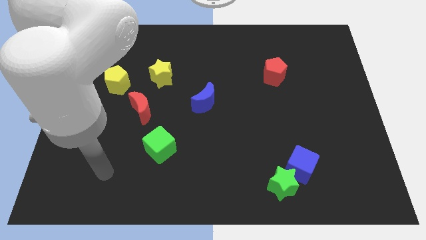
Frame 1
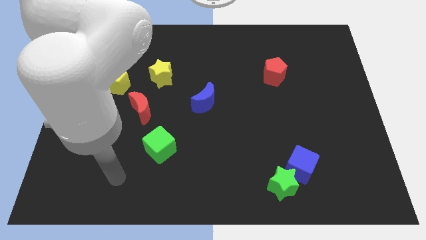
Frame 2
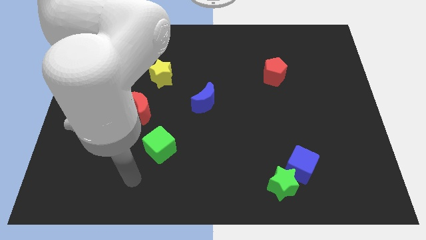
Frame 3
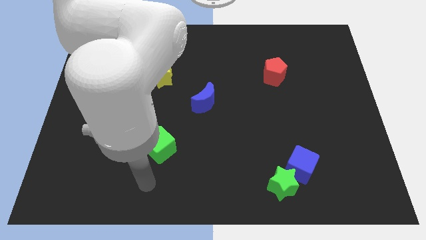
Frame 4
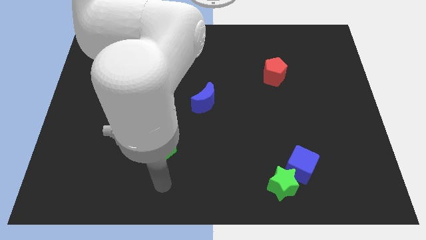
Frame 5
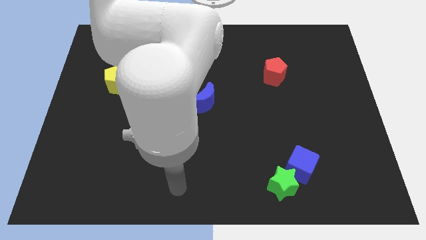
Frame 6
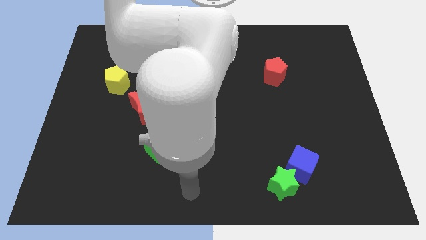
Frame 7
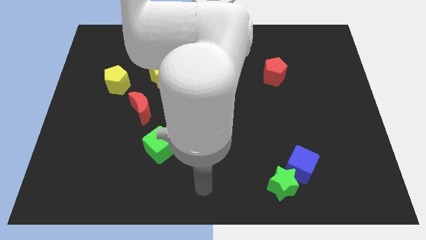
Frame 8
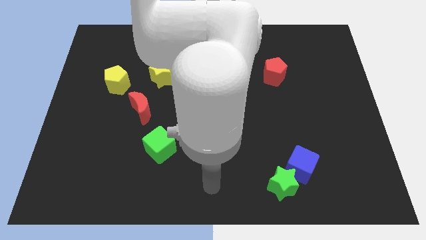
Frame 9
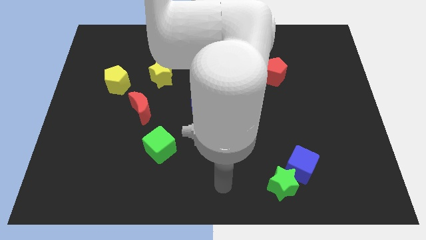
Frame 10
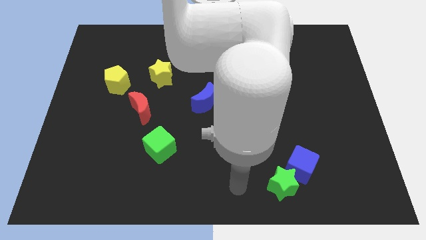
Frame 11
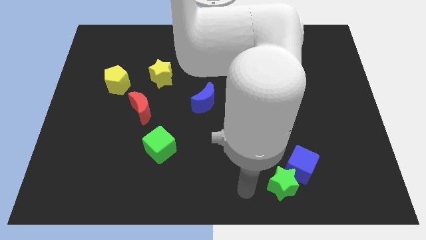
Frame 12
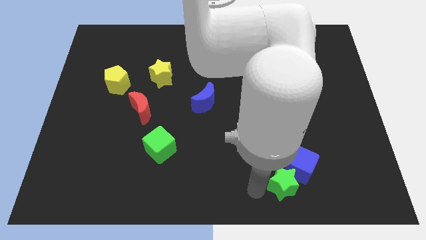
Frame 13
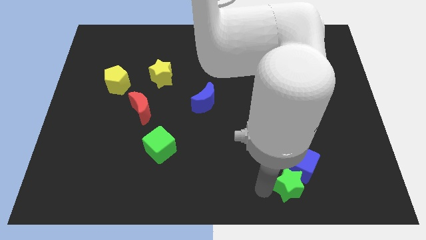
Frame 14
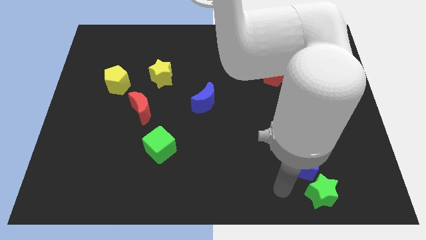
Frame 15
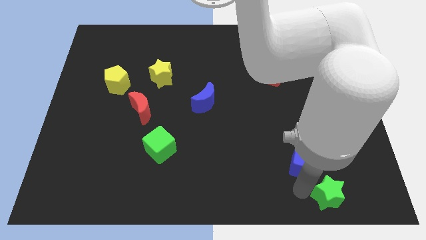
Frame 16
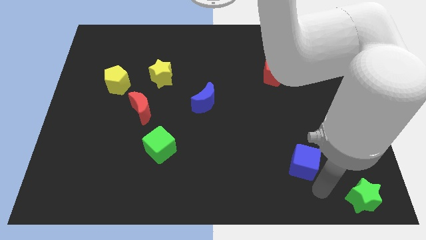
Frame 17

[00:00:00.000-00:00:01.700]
separate the blue cube from the green star

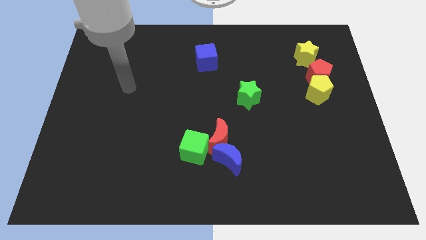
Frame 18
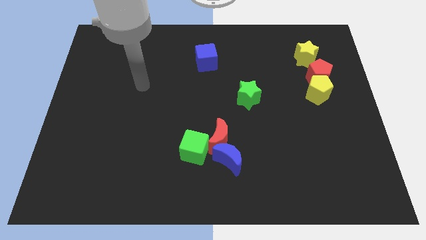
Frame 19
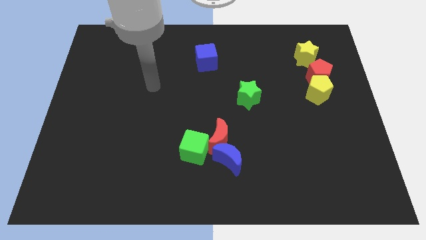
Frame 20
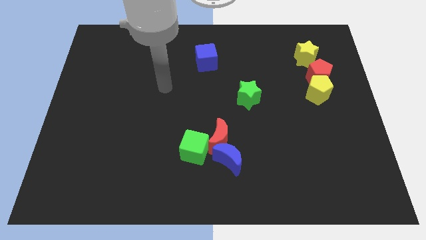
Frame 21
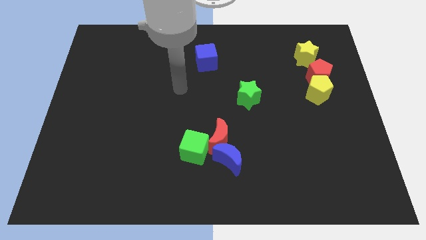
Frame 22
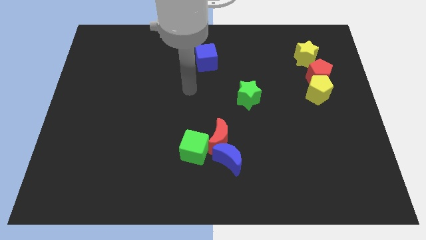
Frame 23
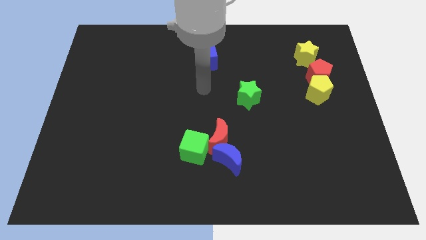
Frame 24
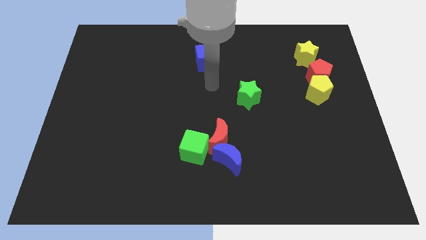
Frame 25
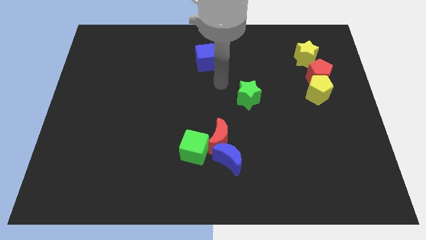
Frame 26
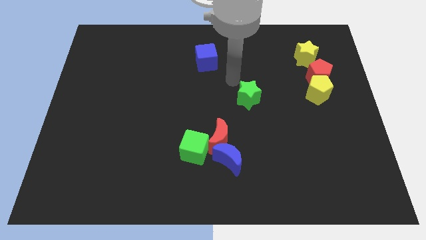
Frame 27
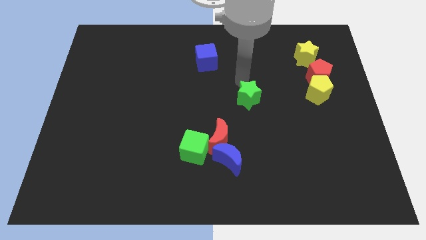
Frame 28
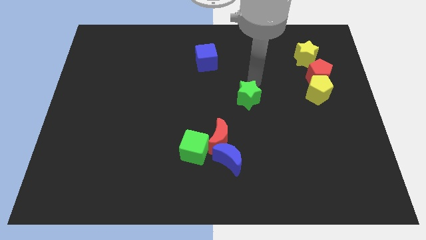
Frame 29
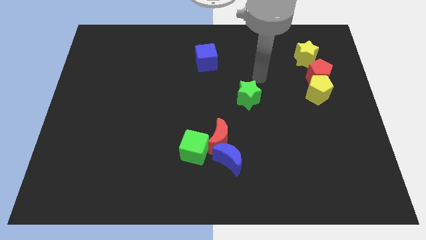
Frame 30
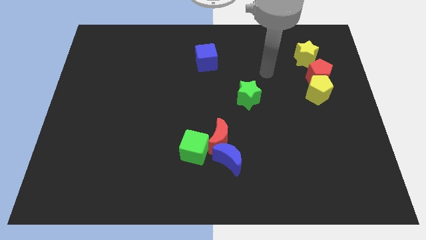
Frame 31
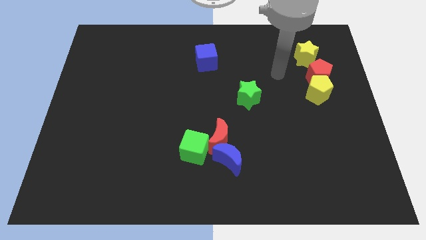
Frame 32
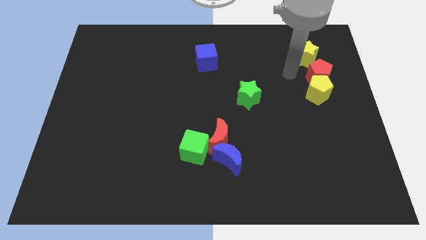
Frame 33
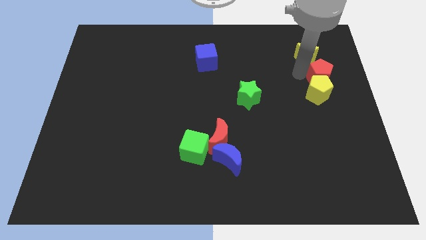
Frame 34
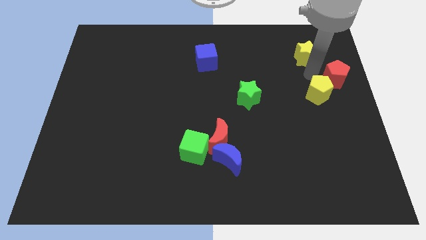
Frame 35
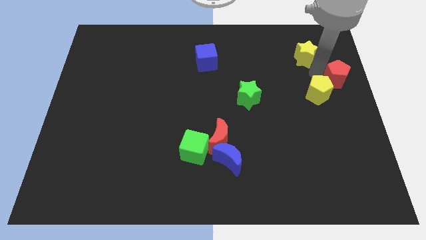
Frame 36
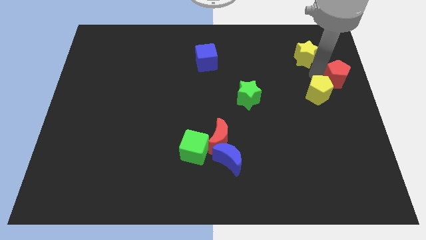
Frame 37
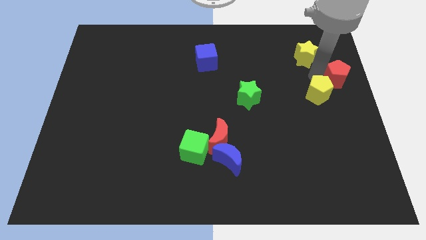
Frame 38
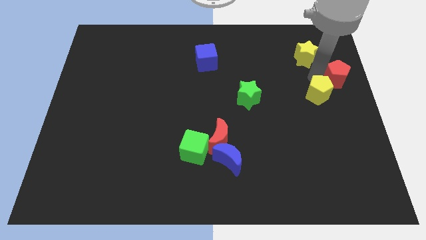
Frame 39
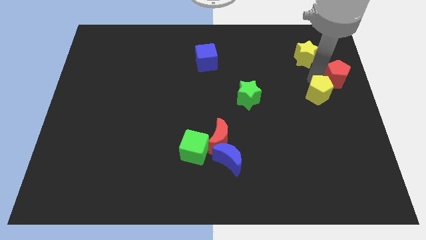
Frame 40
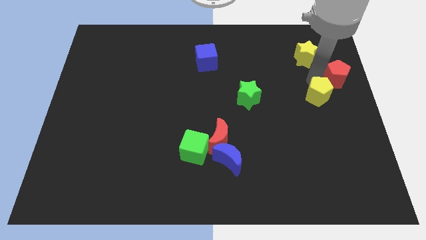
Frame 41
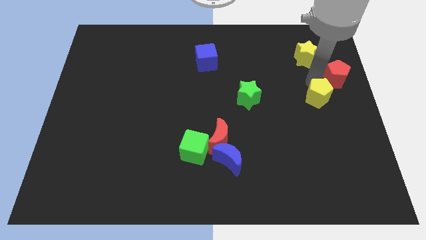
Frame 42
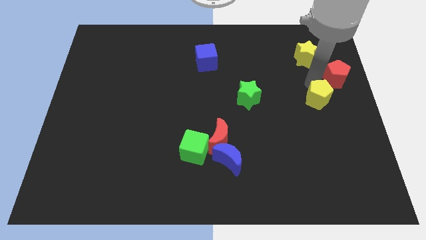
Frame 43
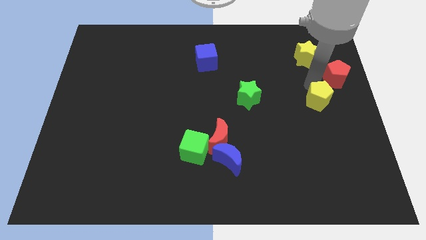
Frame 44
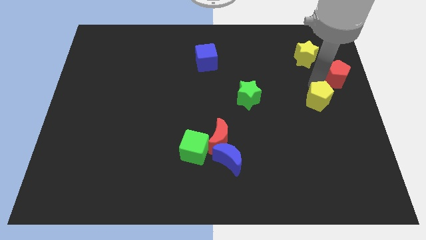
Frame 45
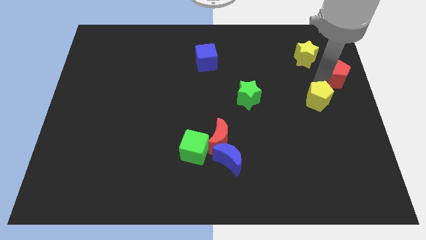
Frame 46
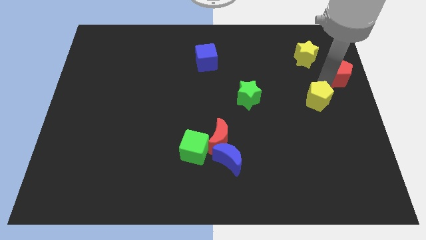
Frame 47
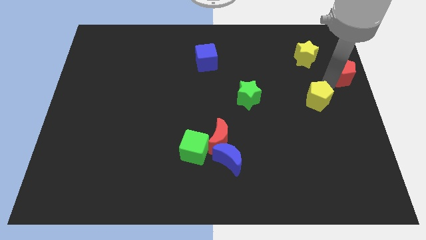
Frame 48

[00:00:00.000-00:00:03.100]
move the yellow pentagon away from the red pentagon

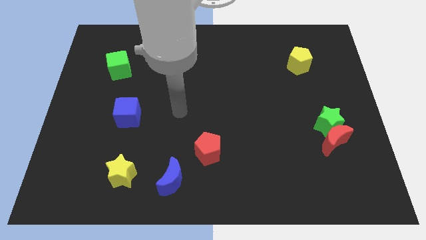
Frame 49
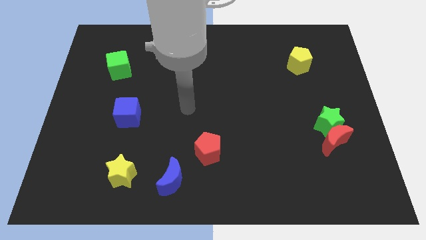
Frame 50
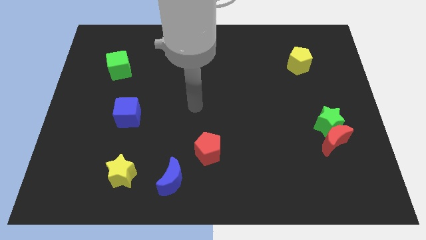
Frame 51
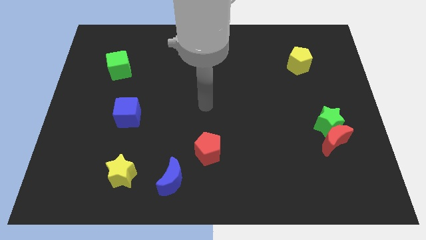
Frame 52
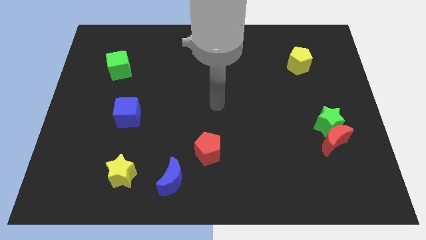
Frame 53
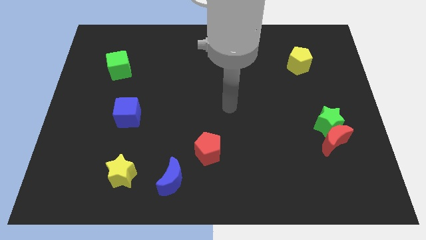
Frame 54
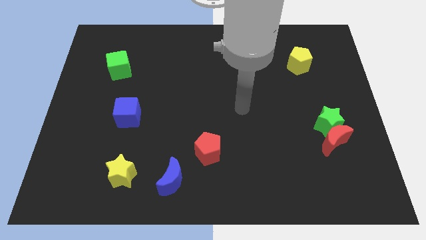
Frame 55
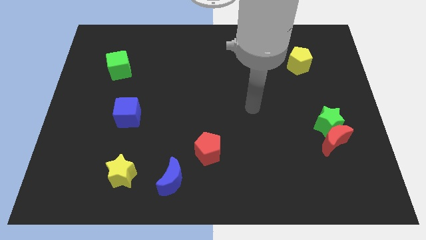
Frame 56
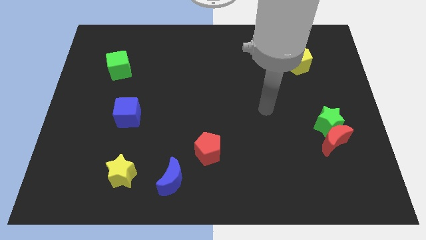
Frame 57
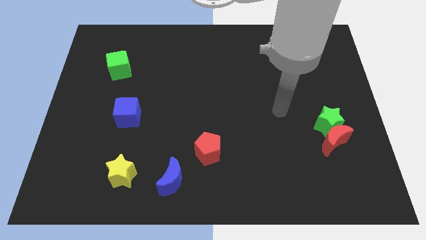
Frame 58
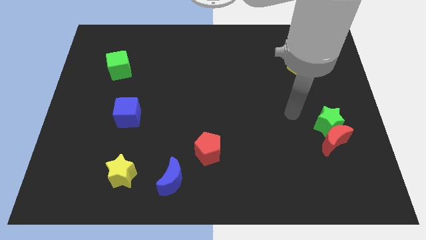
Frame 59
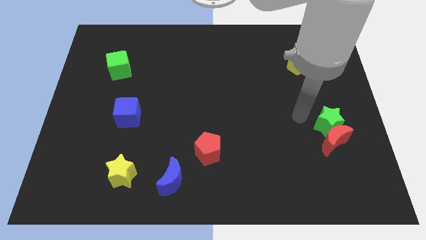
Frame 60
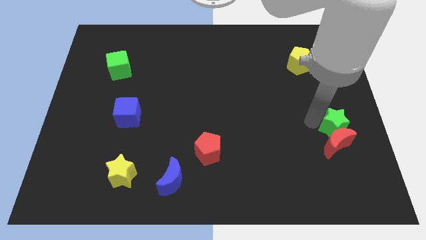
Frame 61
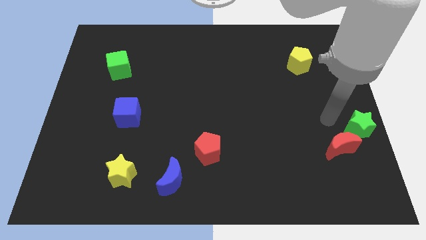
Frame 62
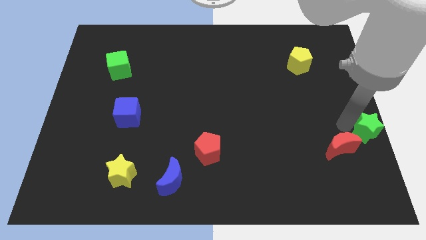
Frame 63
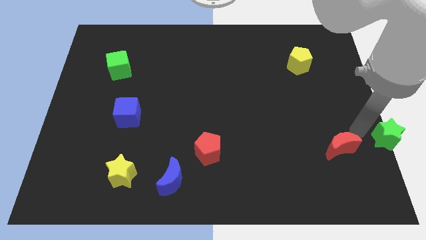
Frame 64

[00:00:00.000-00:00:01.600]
separate the red moon from the green star

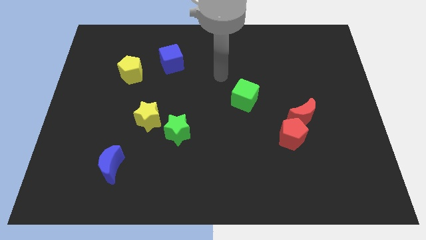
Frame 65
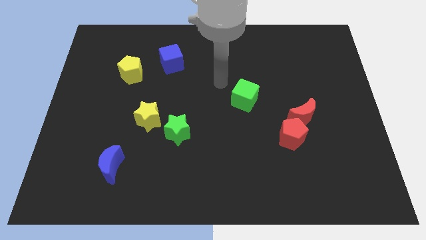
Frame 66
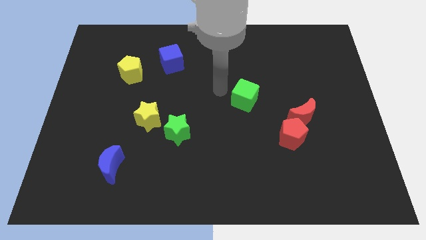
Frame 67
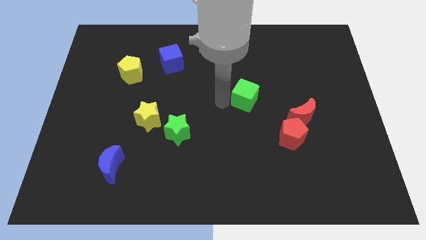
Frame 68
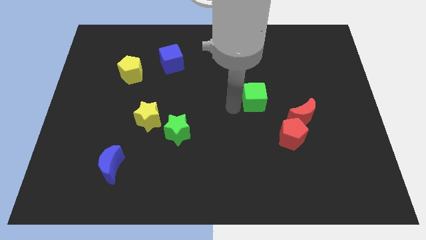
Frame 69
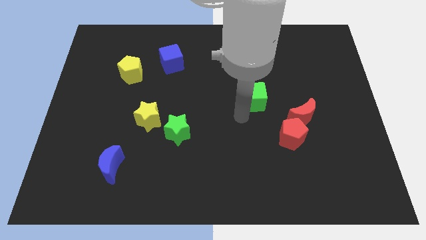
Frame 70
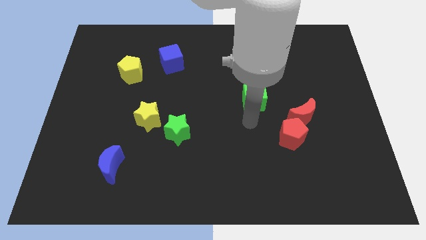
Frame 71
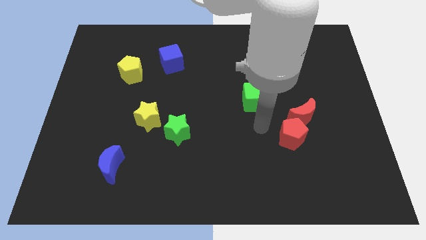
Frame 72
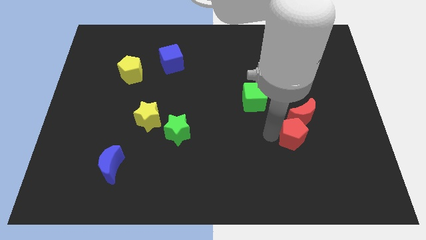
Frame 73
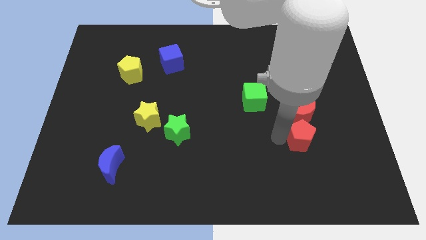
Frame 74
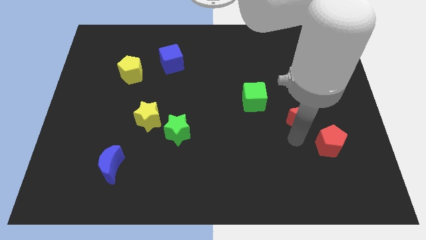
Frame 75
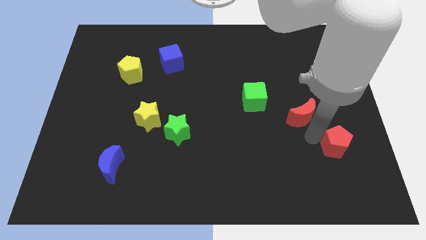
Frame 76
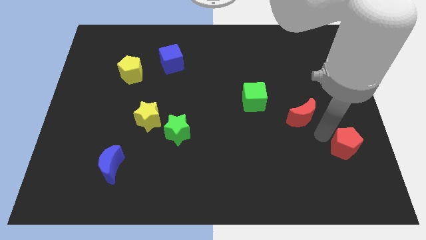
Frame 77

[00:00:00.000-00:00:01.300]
separate the red moon from the red pentagon

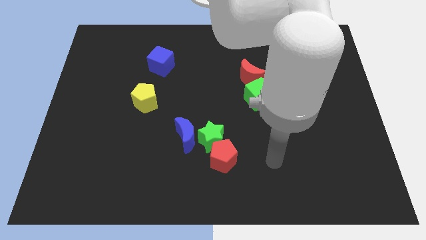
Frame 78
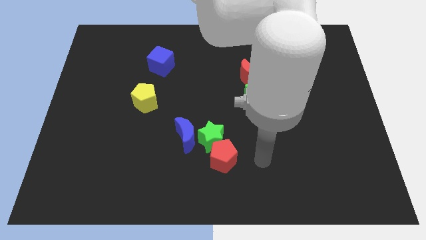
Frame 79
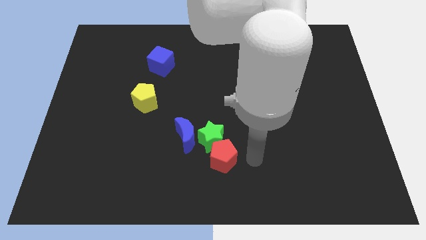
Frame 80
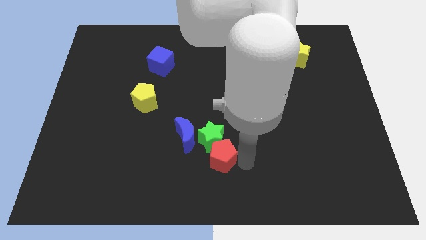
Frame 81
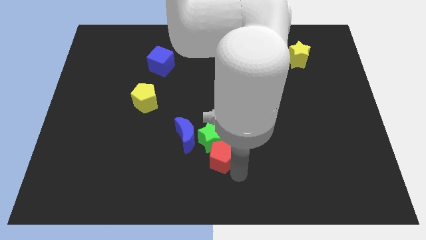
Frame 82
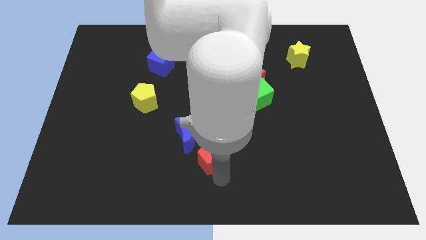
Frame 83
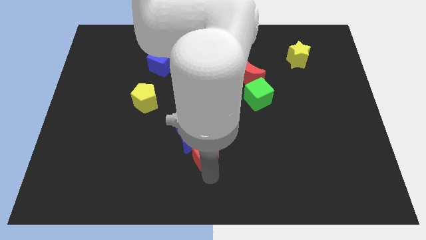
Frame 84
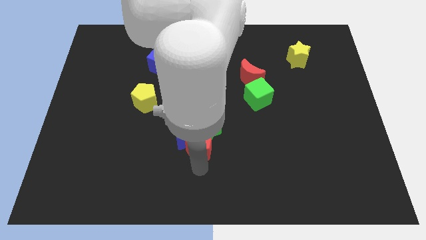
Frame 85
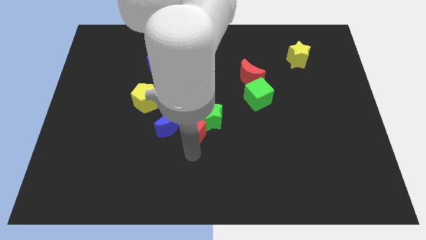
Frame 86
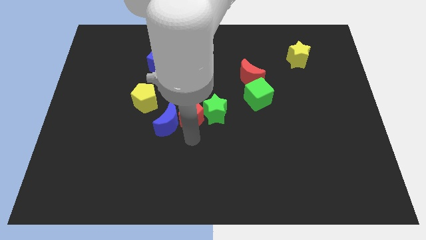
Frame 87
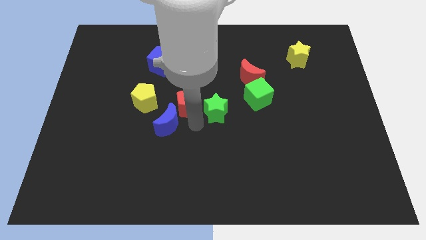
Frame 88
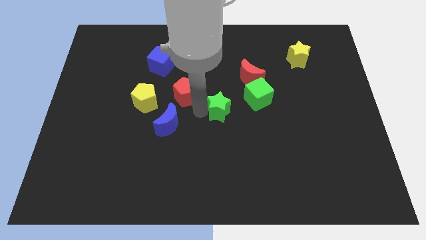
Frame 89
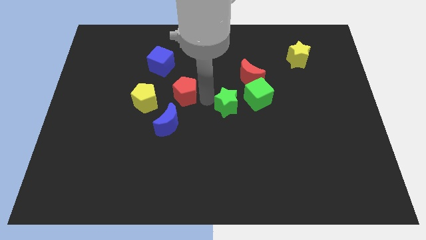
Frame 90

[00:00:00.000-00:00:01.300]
separate the green star from the blue moon and red pentagon

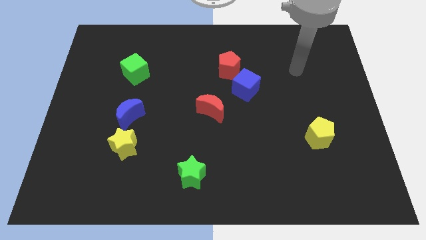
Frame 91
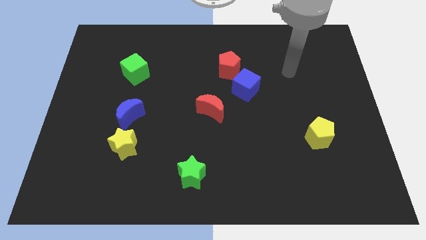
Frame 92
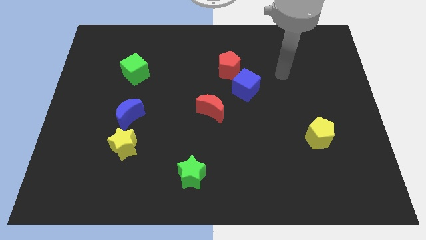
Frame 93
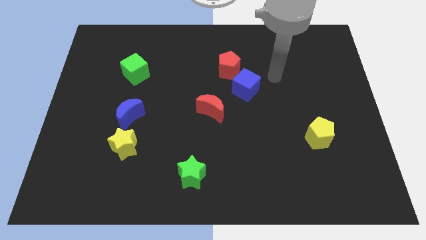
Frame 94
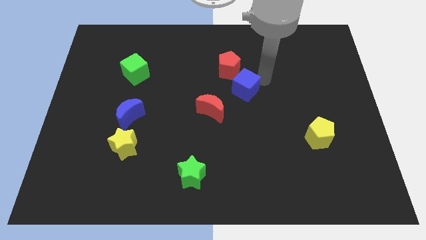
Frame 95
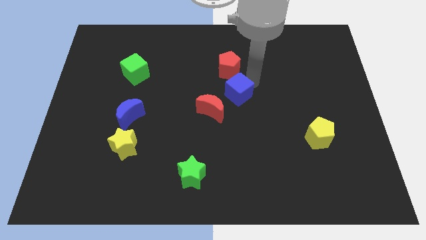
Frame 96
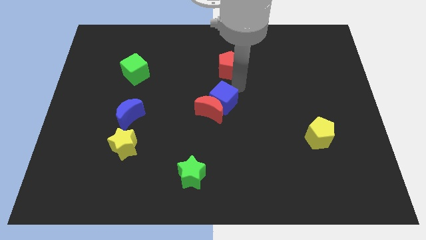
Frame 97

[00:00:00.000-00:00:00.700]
pull the red pentagon apart from the blue cube
